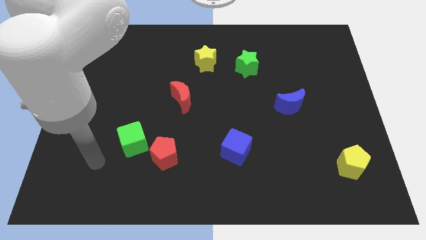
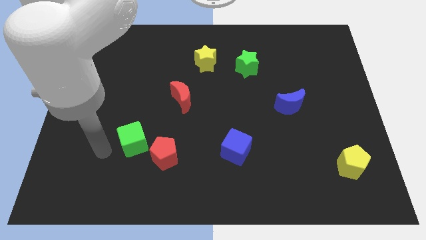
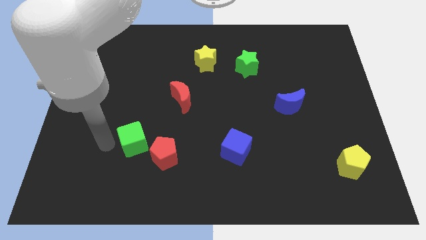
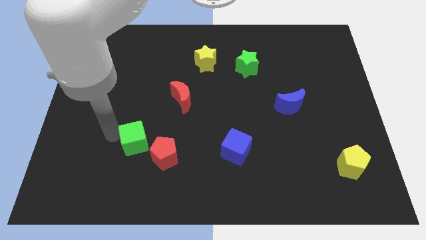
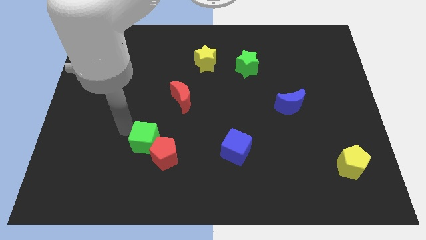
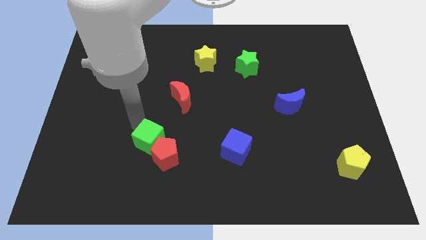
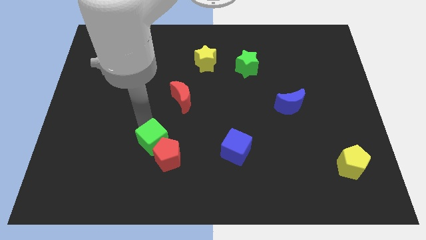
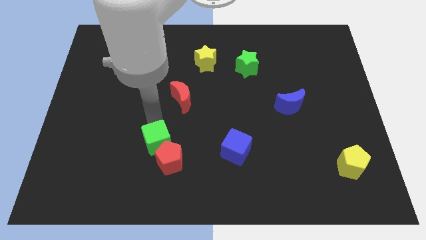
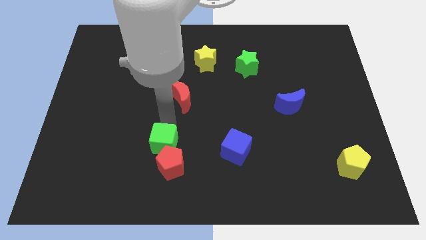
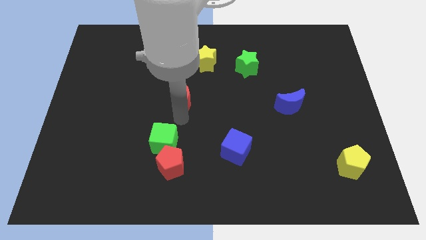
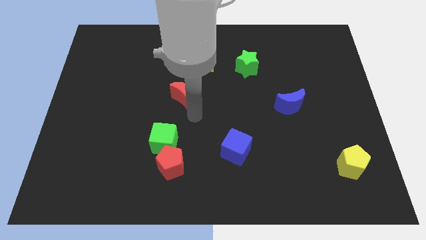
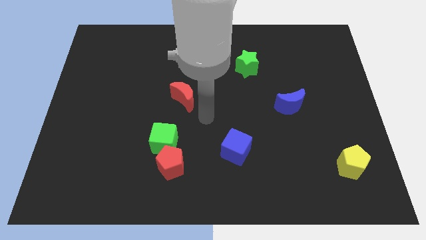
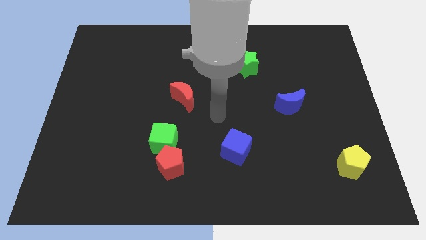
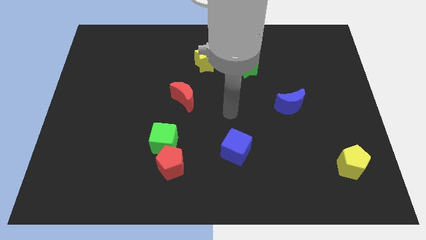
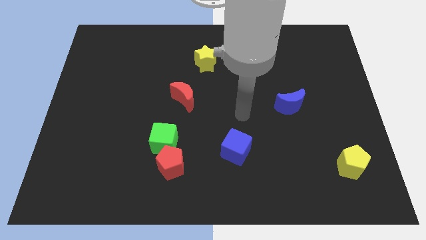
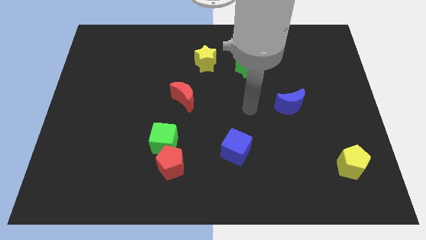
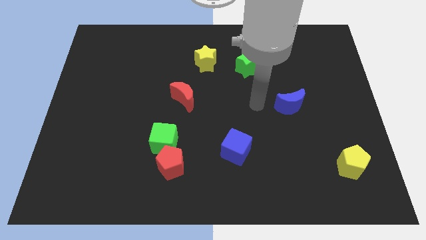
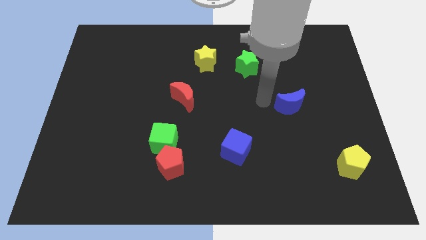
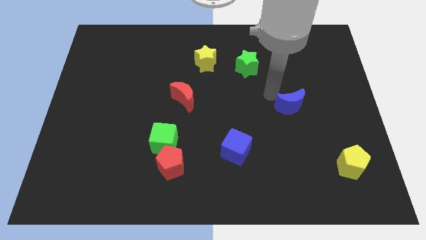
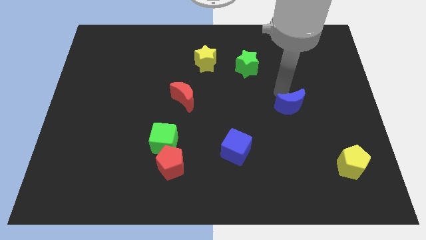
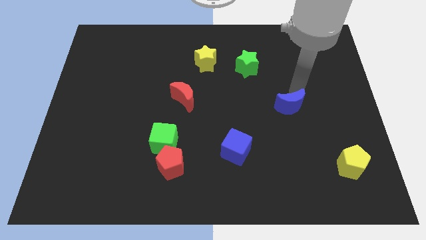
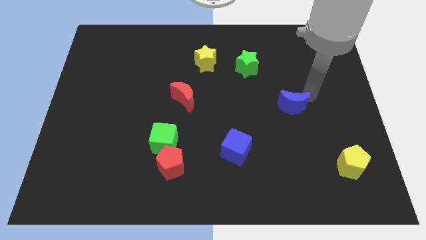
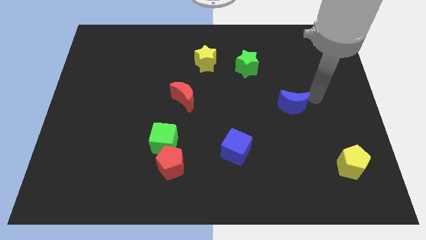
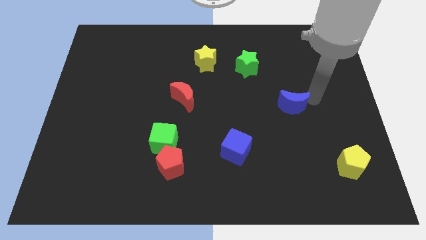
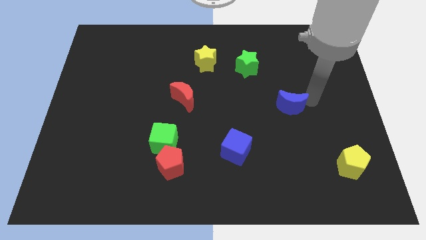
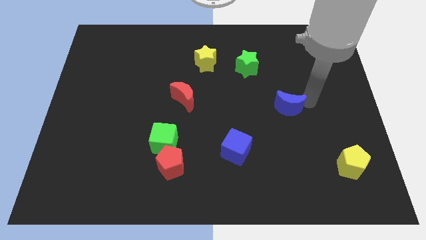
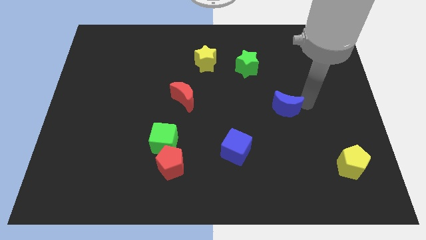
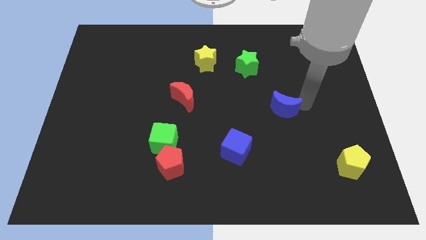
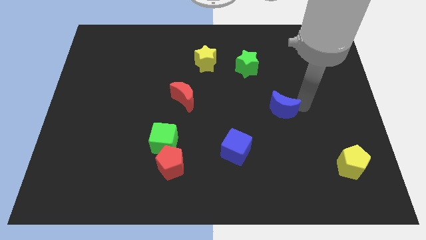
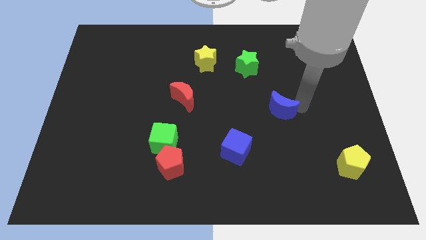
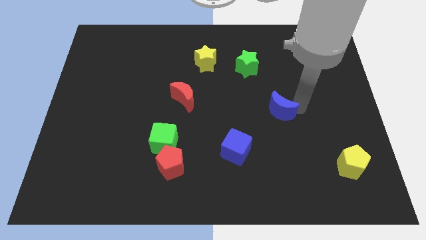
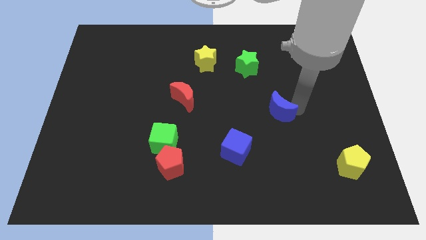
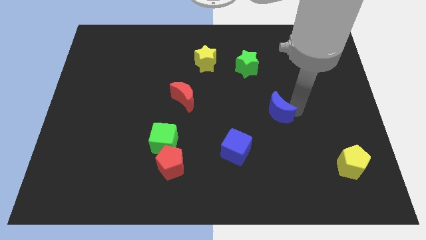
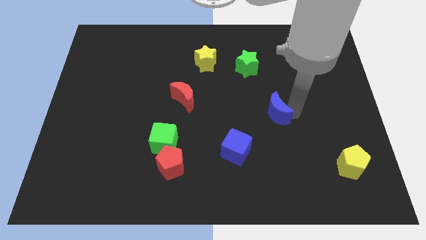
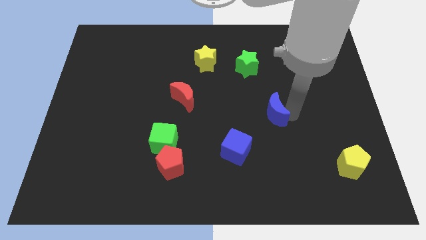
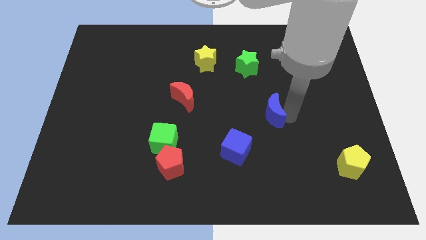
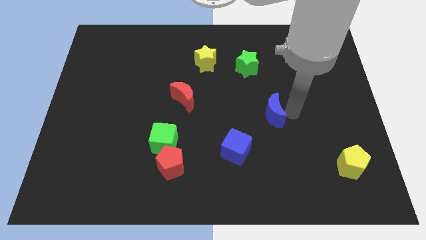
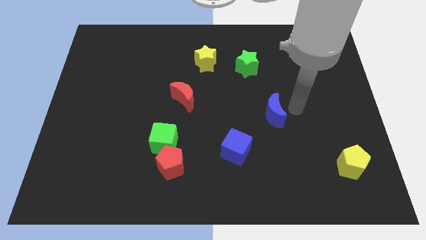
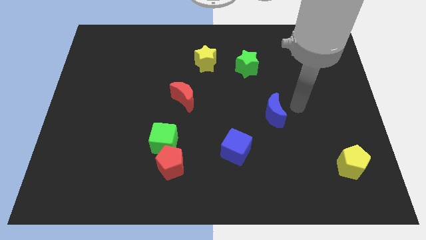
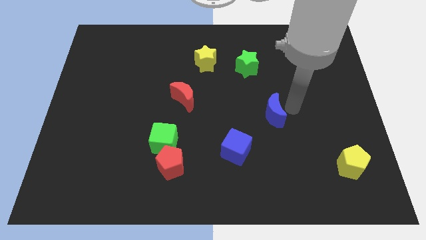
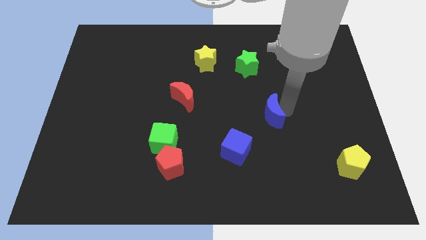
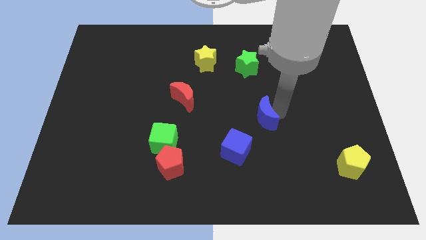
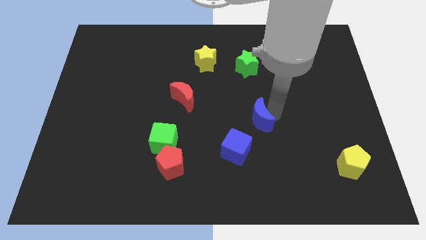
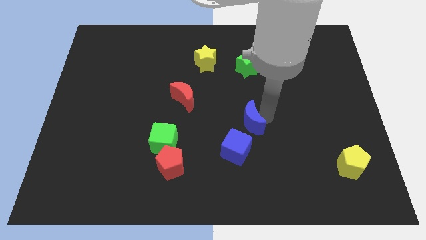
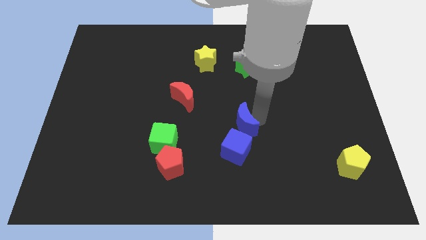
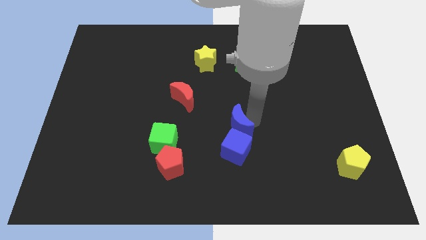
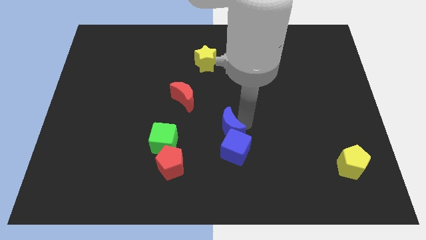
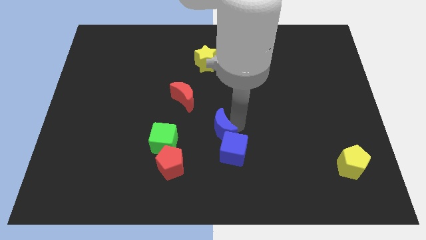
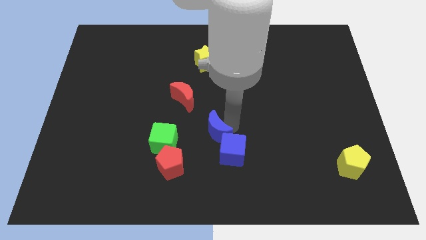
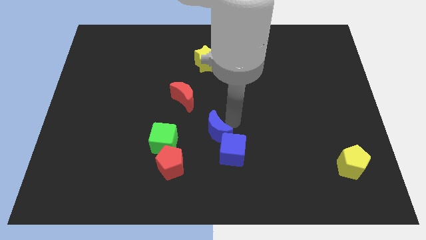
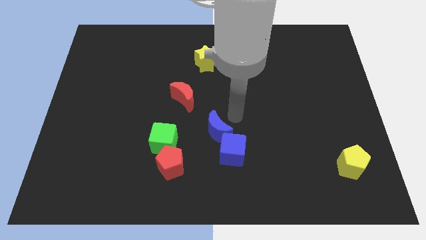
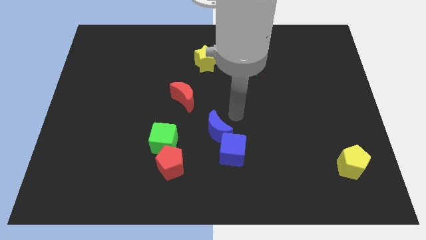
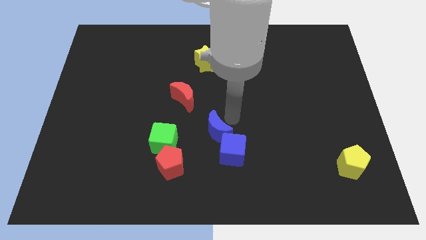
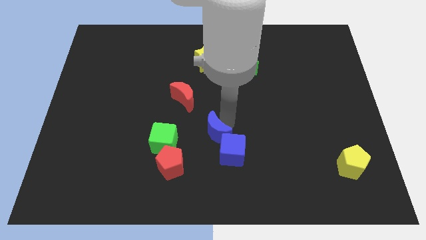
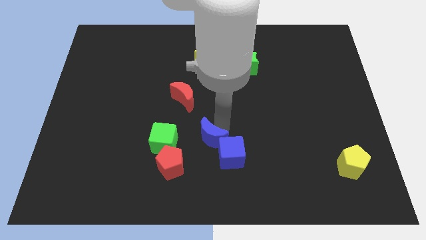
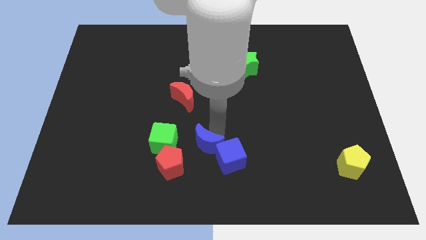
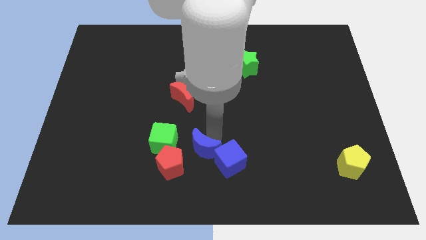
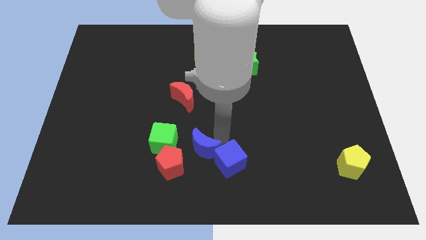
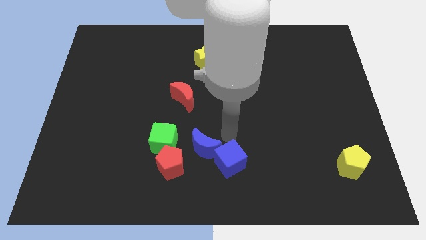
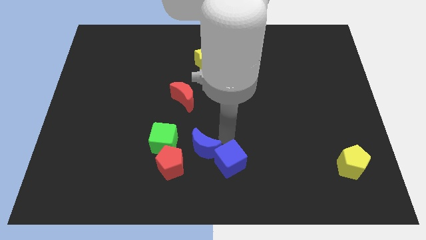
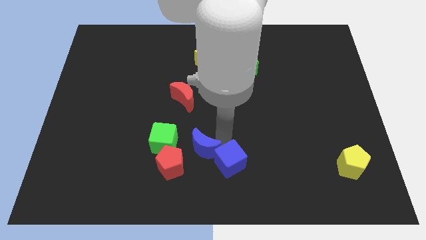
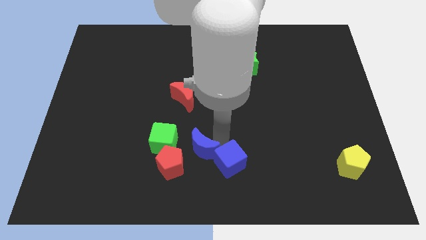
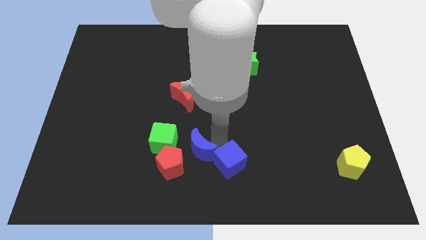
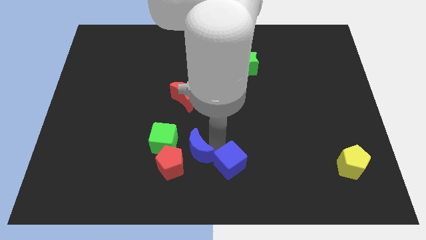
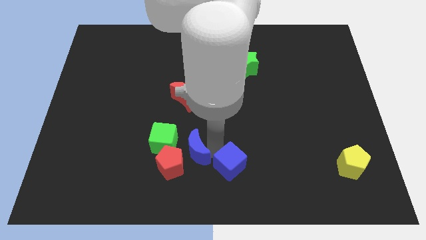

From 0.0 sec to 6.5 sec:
slide the blue moon close to the red pentagon
